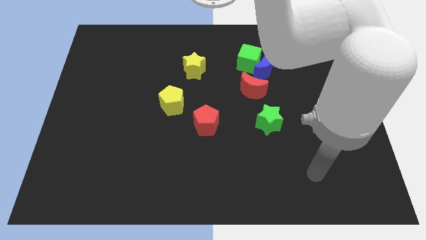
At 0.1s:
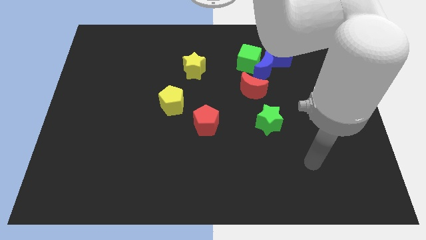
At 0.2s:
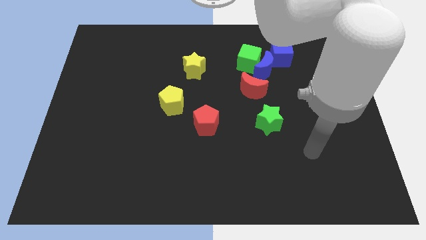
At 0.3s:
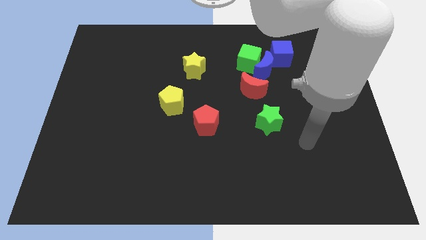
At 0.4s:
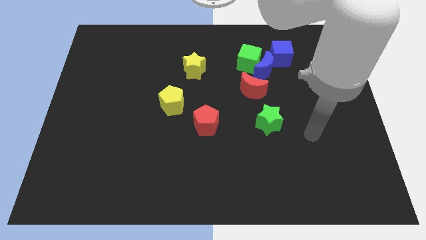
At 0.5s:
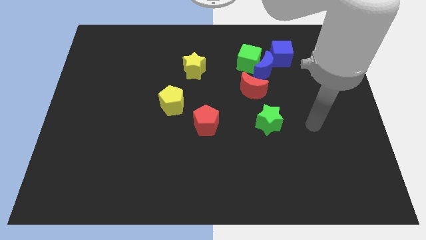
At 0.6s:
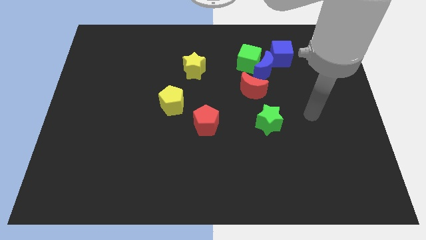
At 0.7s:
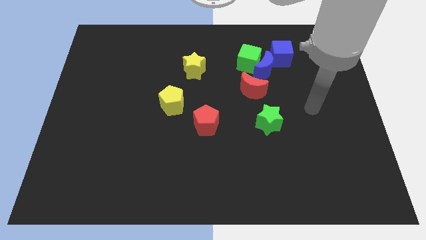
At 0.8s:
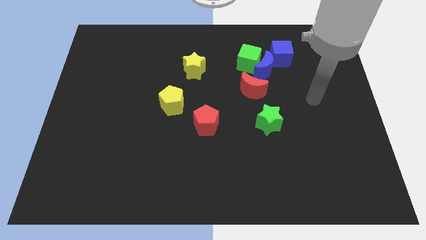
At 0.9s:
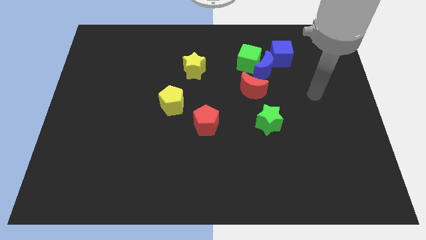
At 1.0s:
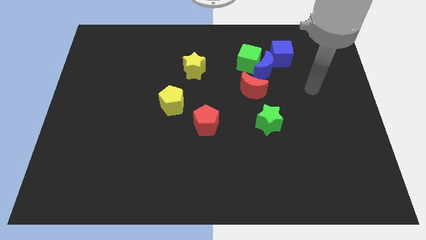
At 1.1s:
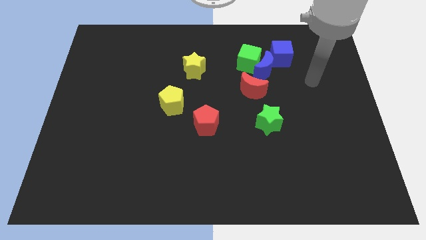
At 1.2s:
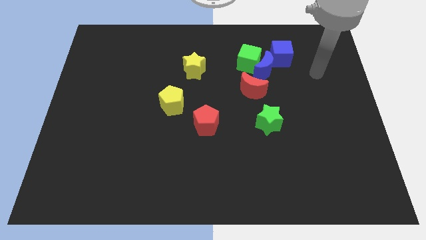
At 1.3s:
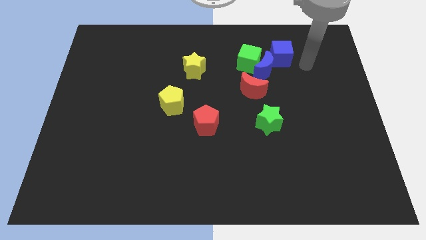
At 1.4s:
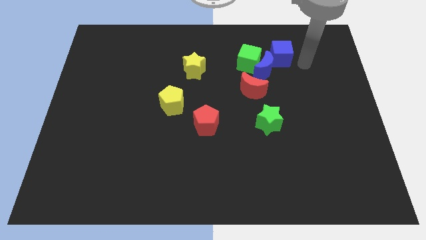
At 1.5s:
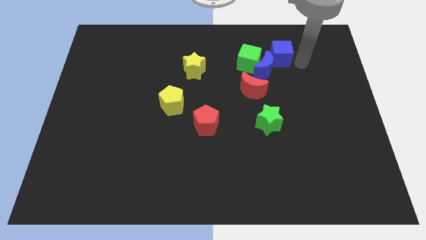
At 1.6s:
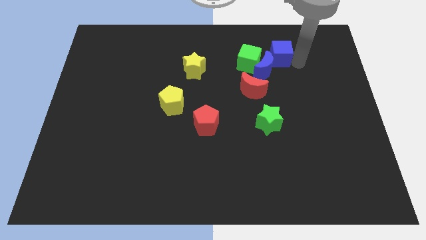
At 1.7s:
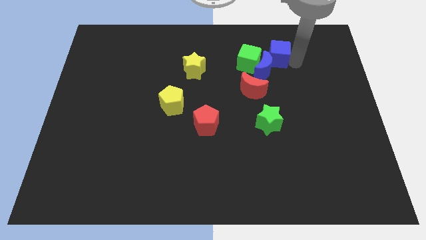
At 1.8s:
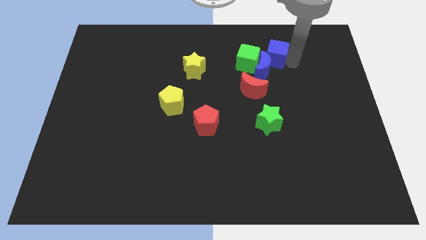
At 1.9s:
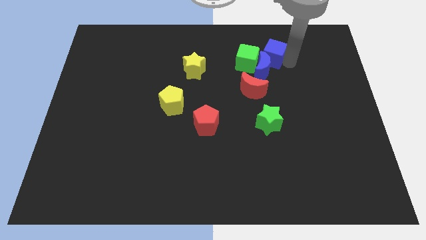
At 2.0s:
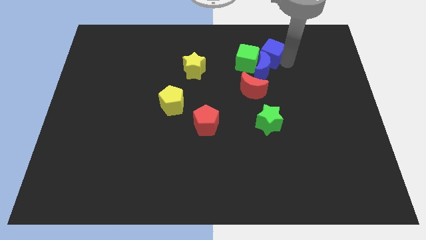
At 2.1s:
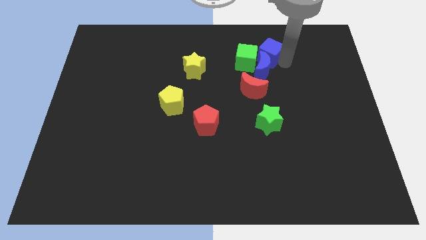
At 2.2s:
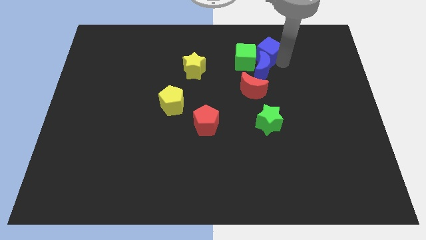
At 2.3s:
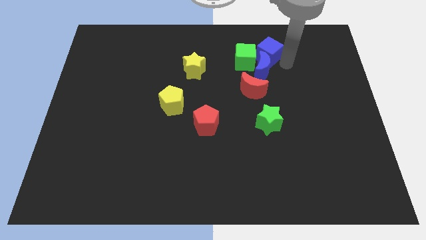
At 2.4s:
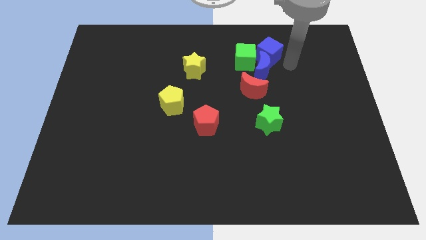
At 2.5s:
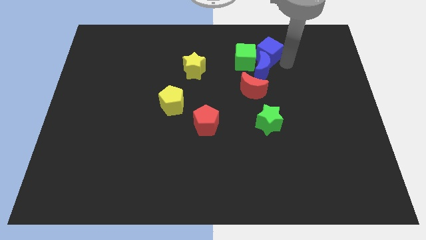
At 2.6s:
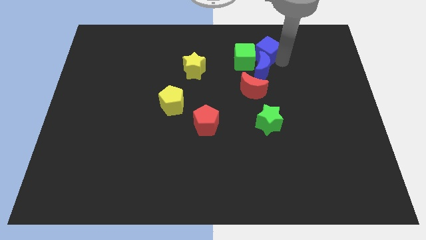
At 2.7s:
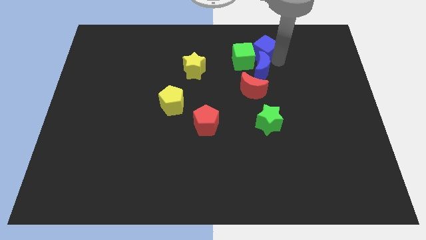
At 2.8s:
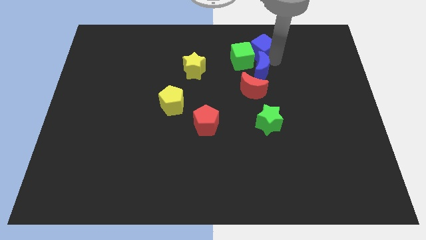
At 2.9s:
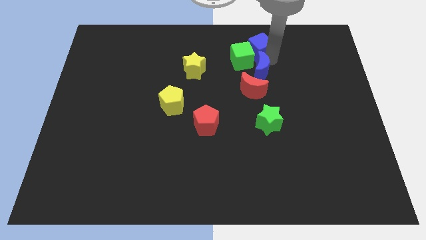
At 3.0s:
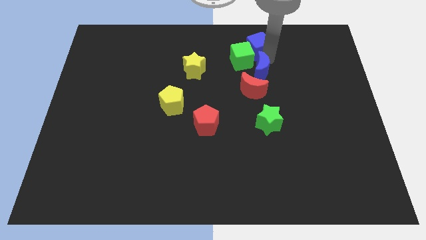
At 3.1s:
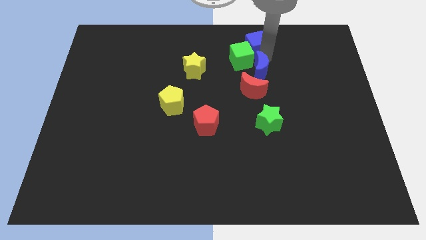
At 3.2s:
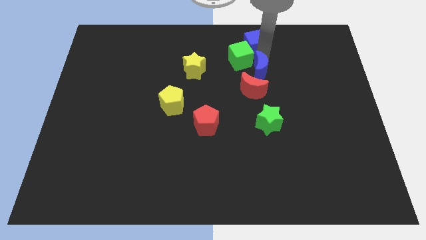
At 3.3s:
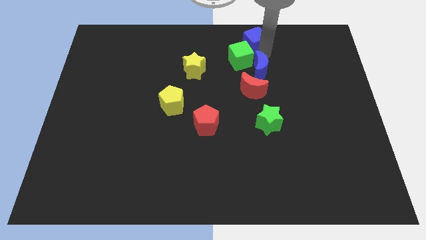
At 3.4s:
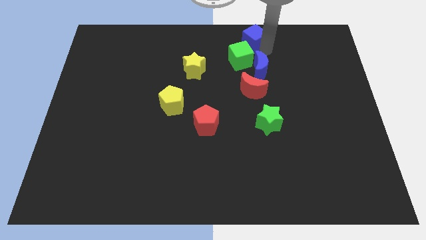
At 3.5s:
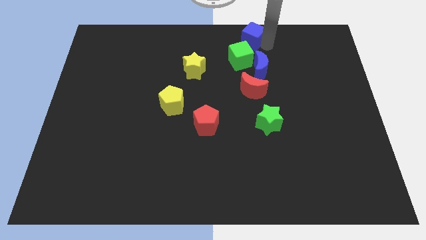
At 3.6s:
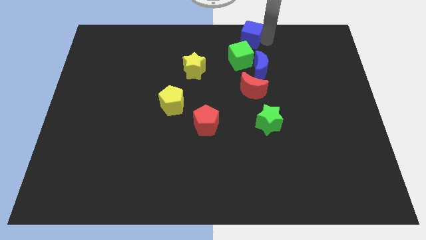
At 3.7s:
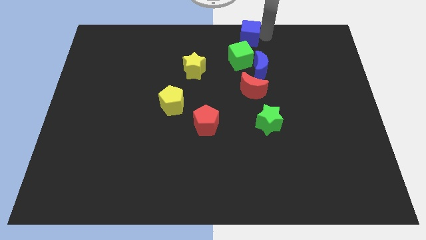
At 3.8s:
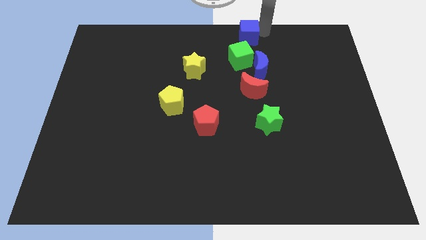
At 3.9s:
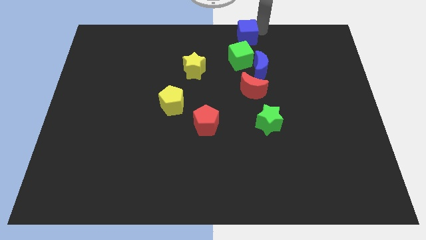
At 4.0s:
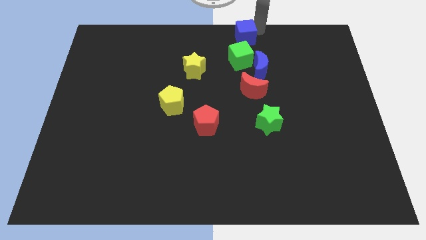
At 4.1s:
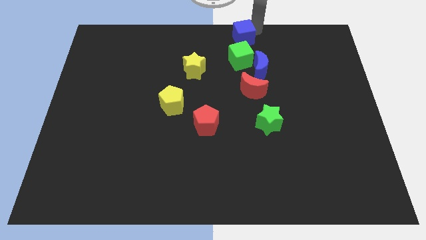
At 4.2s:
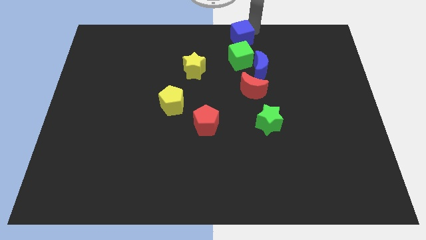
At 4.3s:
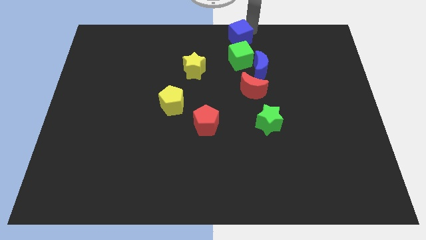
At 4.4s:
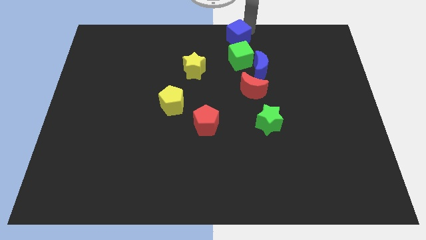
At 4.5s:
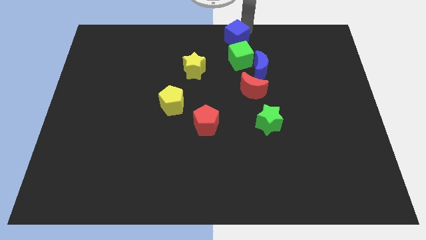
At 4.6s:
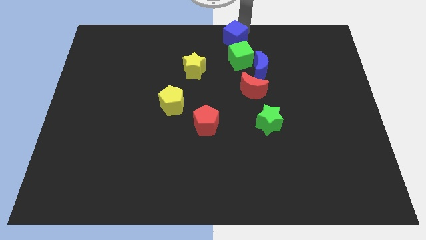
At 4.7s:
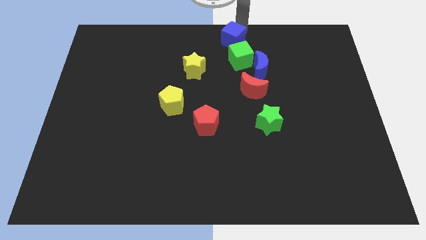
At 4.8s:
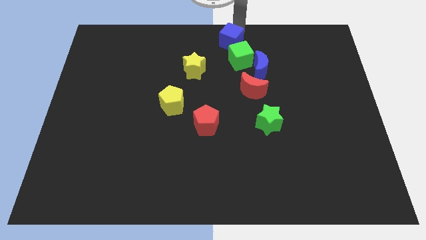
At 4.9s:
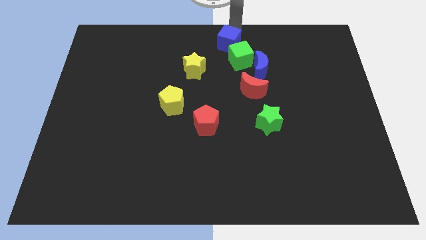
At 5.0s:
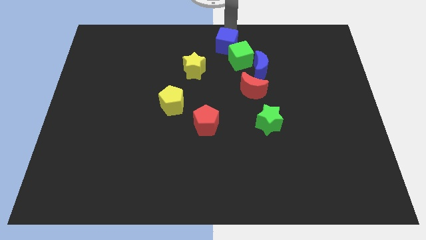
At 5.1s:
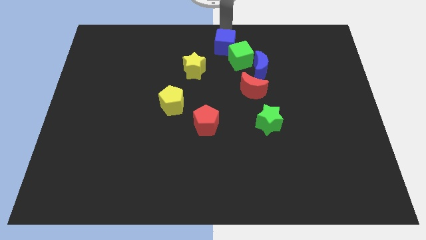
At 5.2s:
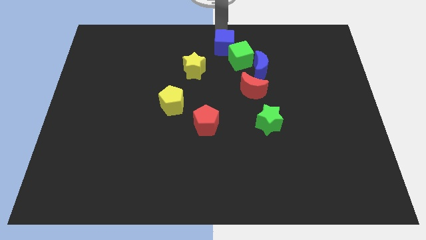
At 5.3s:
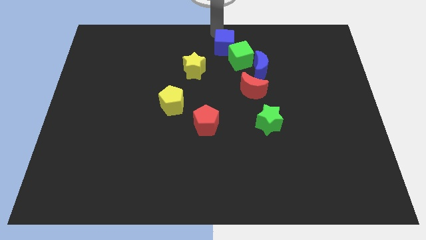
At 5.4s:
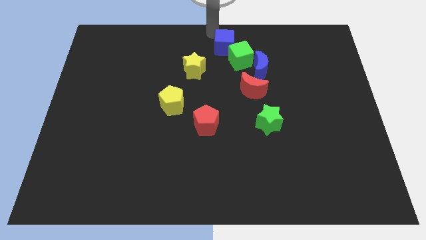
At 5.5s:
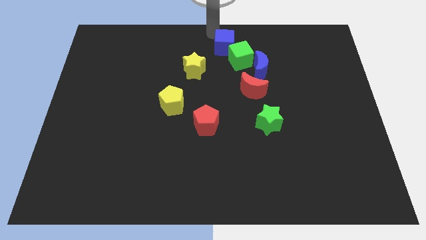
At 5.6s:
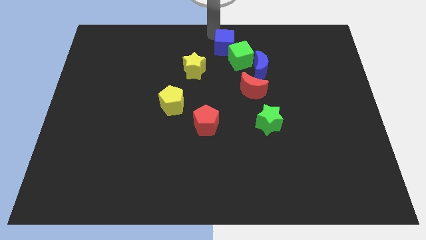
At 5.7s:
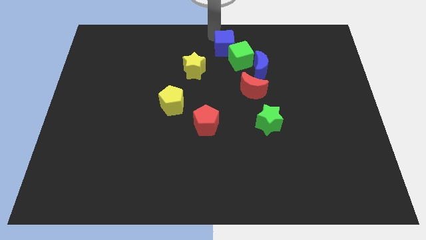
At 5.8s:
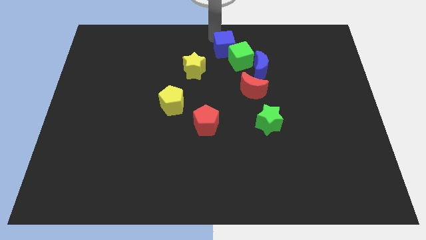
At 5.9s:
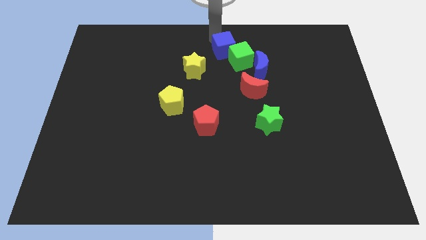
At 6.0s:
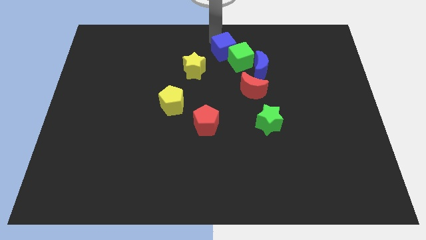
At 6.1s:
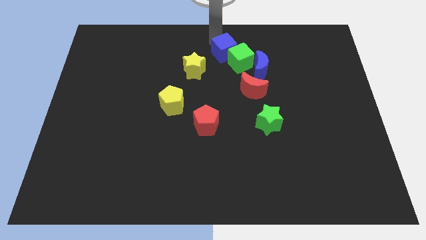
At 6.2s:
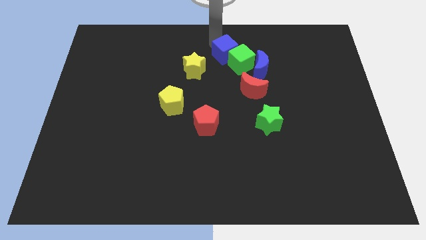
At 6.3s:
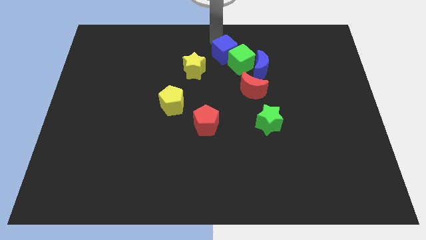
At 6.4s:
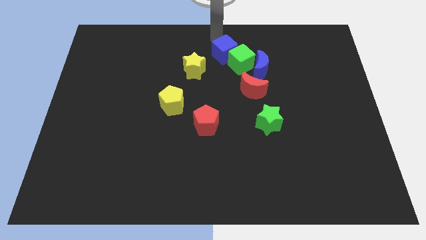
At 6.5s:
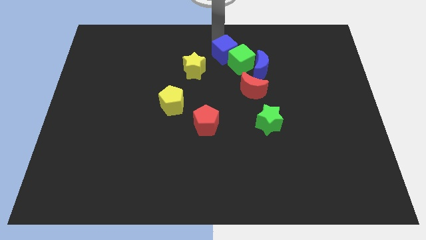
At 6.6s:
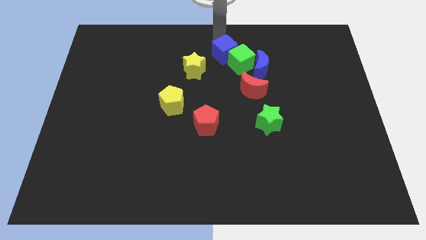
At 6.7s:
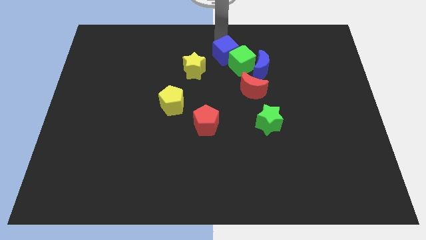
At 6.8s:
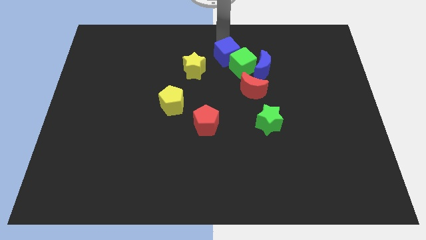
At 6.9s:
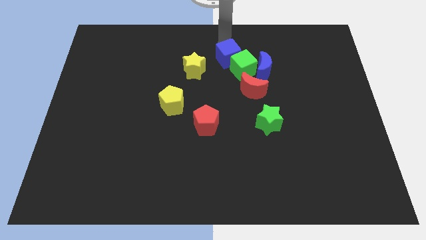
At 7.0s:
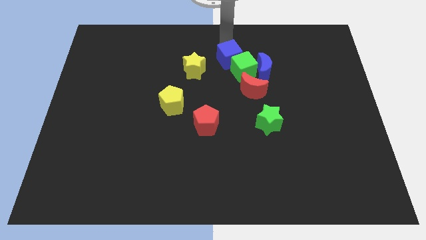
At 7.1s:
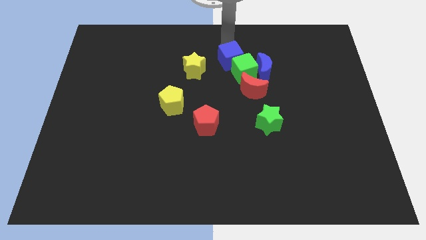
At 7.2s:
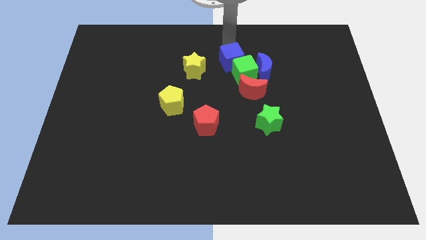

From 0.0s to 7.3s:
push the blue cube a little bit downwards and to the left diagonally

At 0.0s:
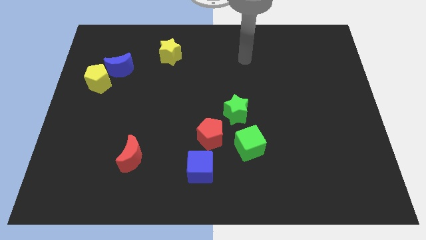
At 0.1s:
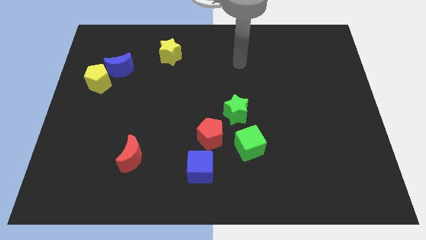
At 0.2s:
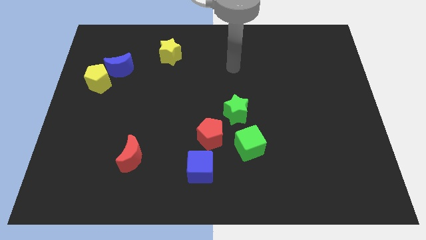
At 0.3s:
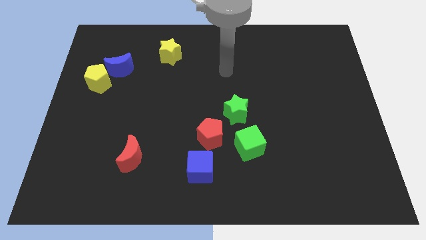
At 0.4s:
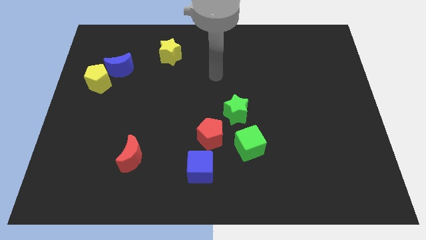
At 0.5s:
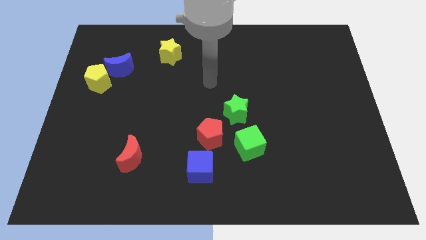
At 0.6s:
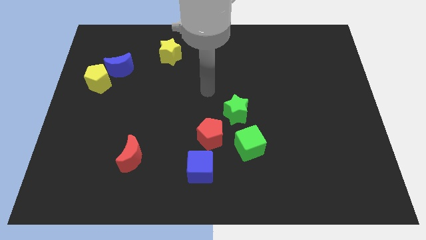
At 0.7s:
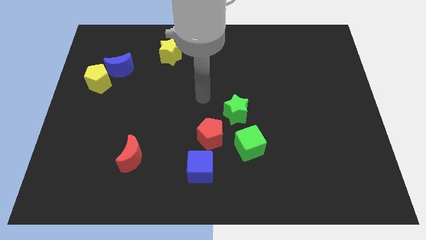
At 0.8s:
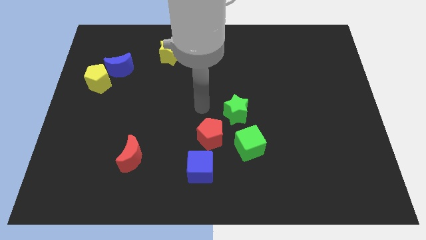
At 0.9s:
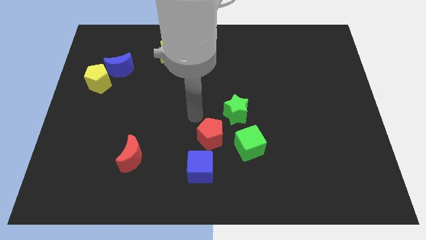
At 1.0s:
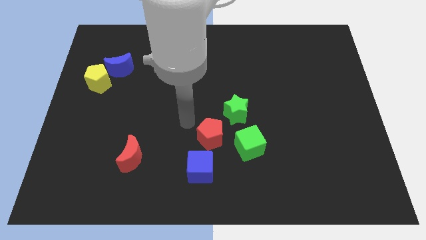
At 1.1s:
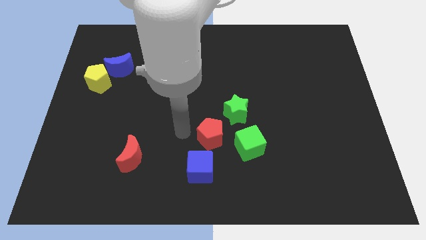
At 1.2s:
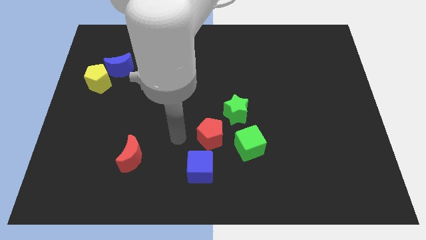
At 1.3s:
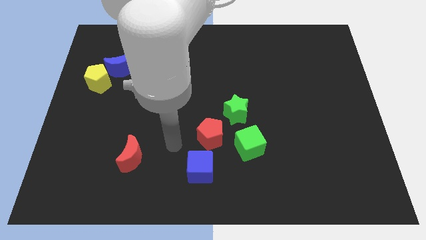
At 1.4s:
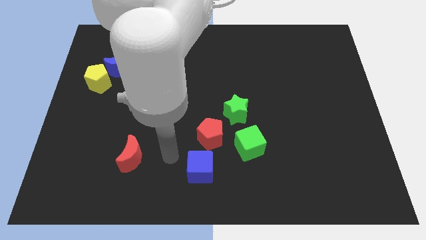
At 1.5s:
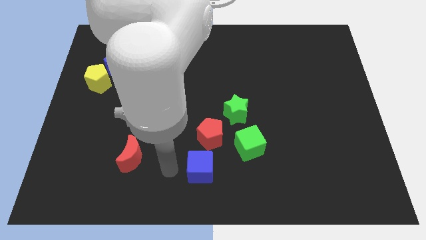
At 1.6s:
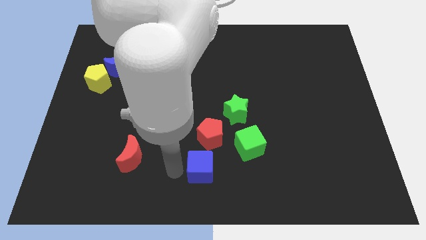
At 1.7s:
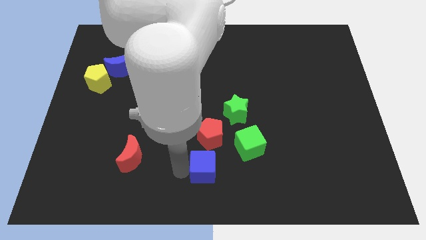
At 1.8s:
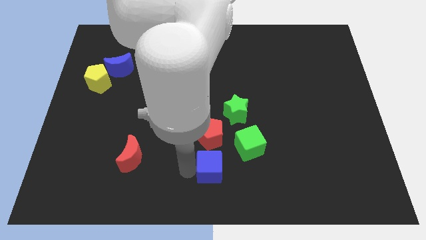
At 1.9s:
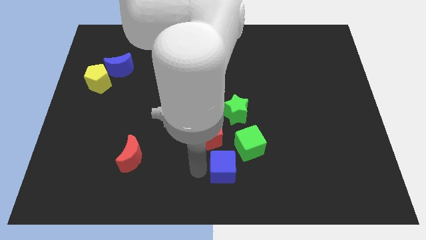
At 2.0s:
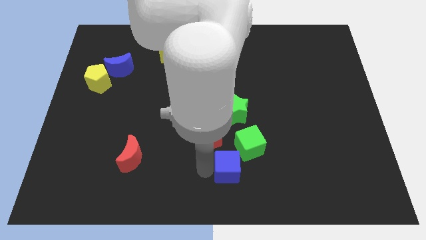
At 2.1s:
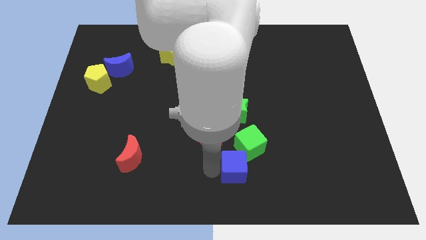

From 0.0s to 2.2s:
slide the blue cube to the right a little
